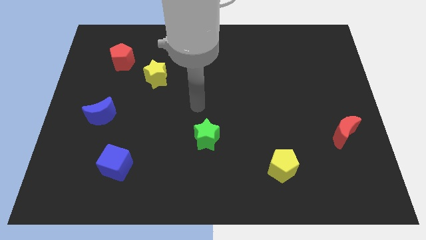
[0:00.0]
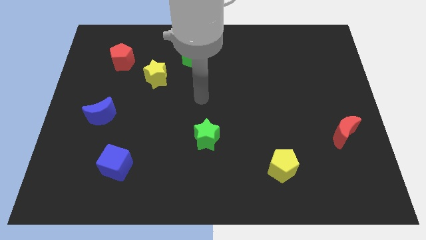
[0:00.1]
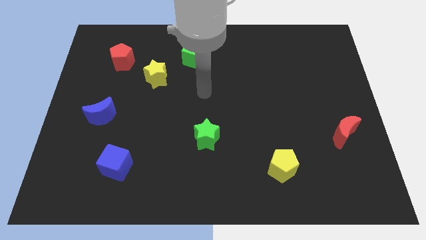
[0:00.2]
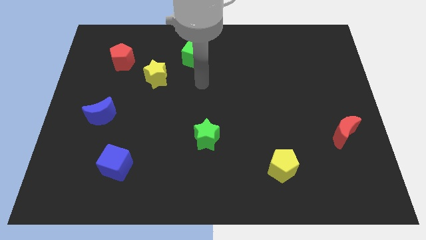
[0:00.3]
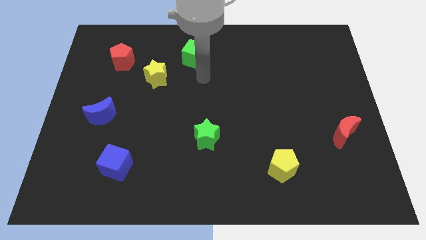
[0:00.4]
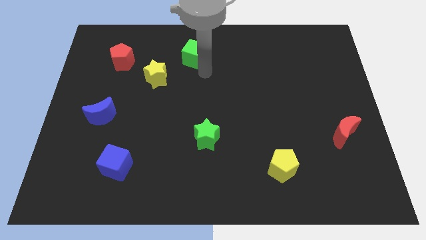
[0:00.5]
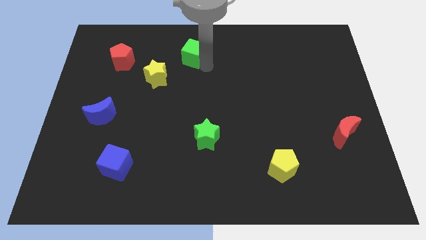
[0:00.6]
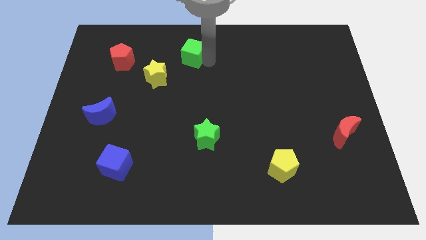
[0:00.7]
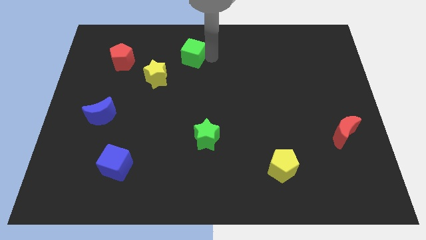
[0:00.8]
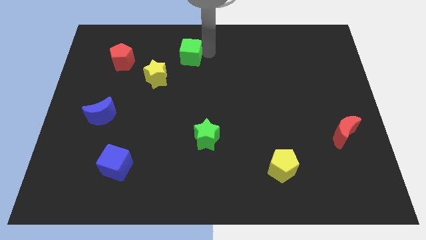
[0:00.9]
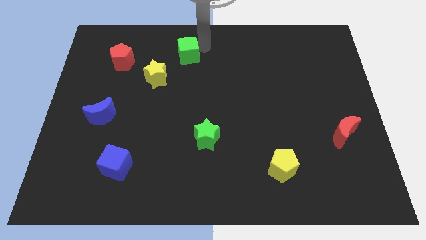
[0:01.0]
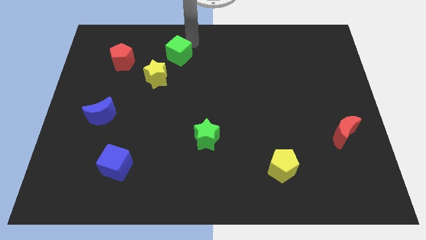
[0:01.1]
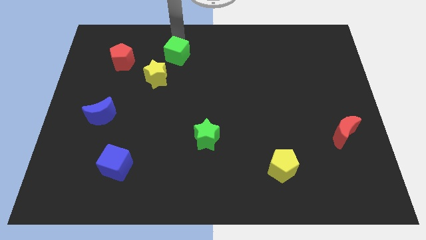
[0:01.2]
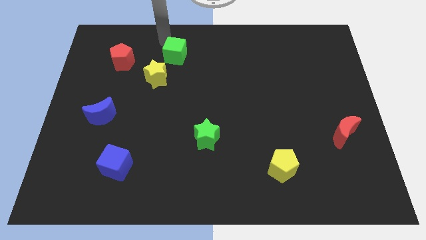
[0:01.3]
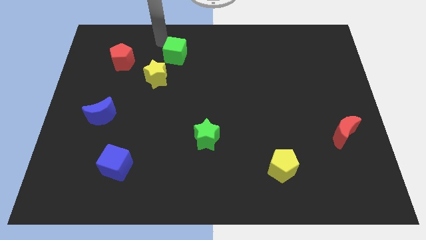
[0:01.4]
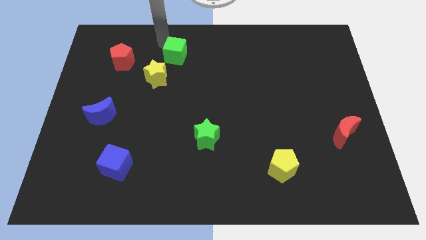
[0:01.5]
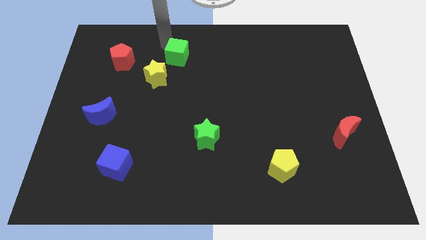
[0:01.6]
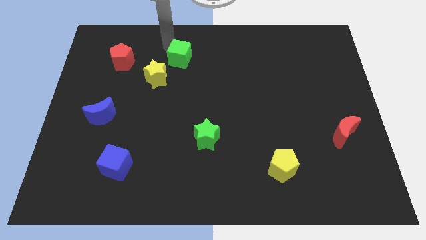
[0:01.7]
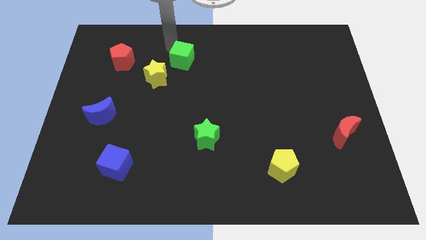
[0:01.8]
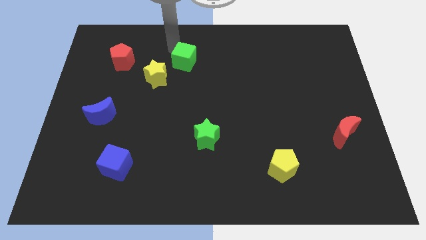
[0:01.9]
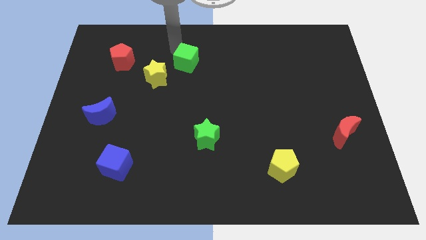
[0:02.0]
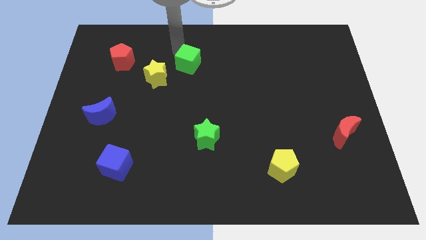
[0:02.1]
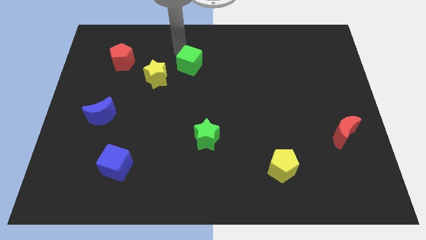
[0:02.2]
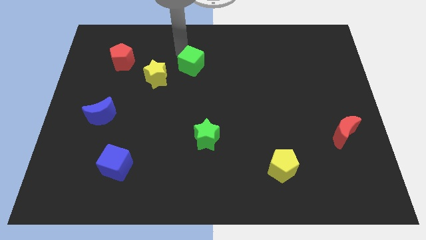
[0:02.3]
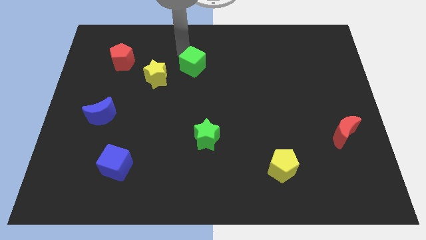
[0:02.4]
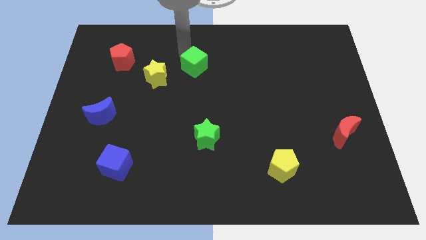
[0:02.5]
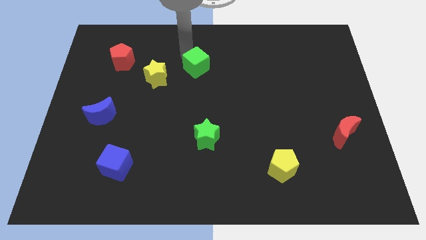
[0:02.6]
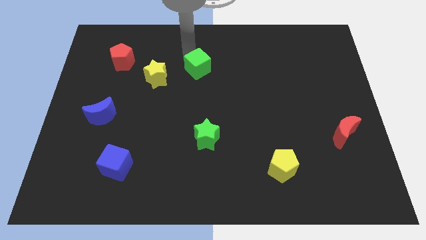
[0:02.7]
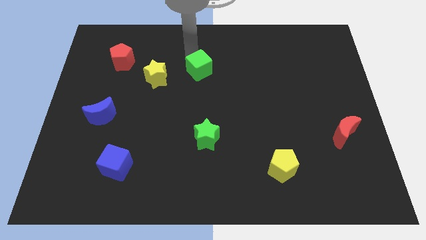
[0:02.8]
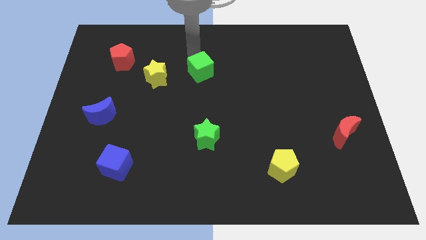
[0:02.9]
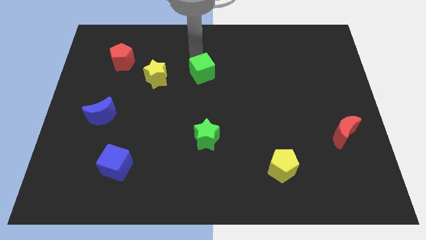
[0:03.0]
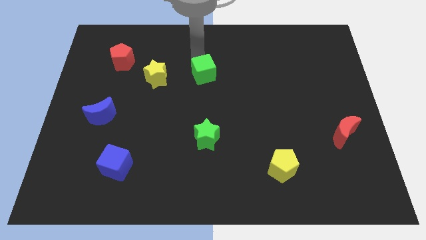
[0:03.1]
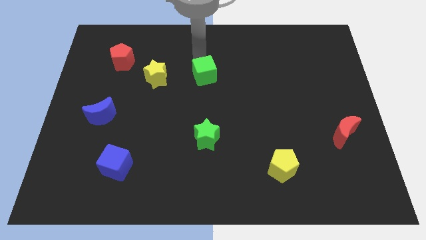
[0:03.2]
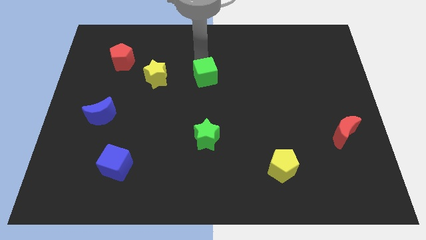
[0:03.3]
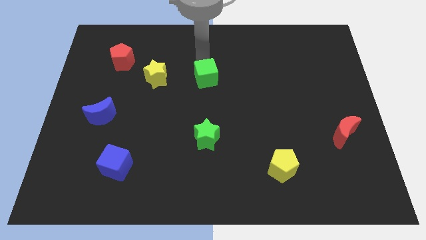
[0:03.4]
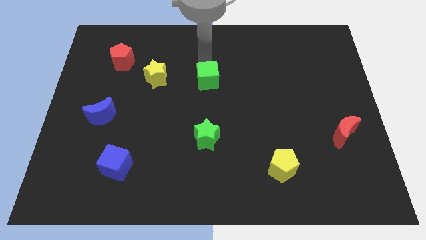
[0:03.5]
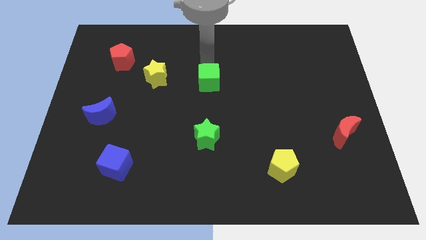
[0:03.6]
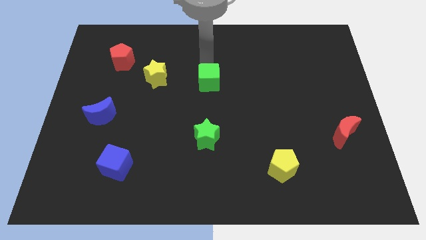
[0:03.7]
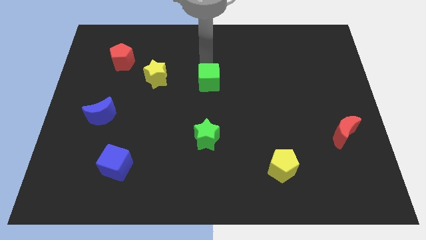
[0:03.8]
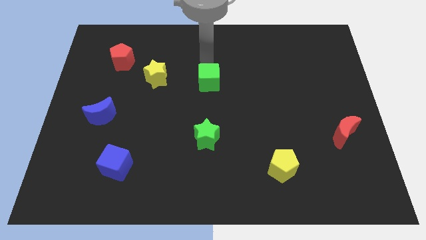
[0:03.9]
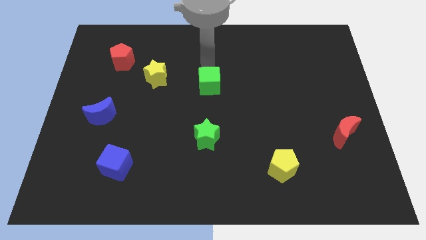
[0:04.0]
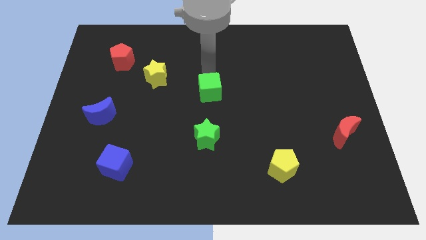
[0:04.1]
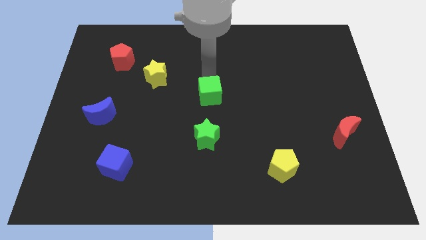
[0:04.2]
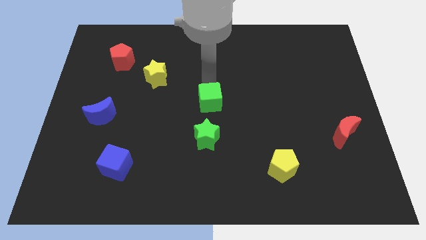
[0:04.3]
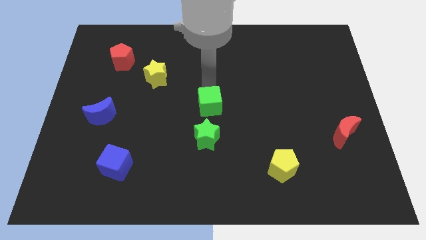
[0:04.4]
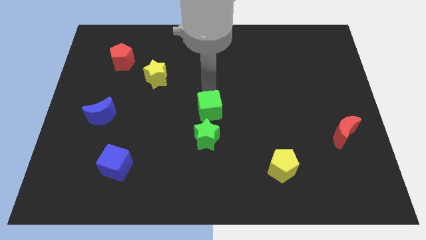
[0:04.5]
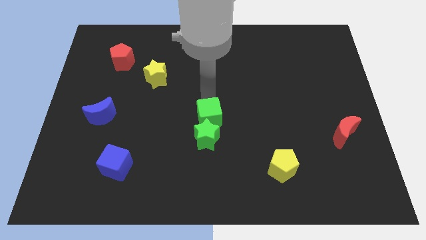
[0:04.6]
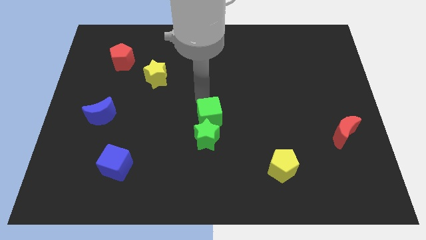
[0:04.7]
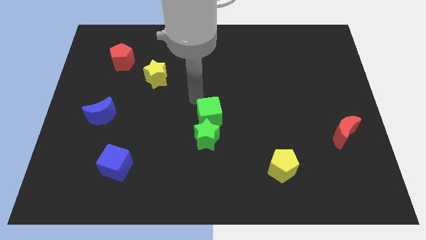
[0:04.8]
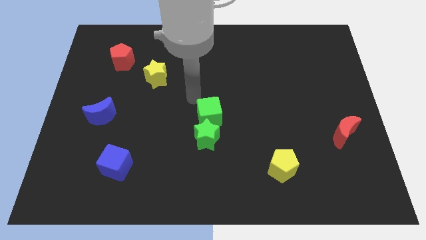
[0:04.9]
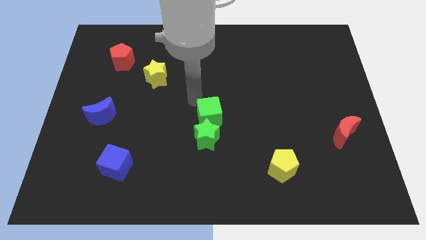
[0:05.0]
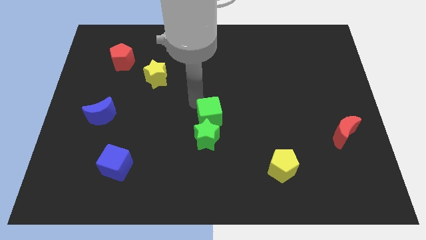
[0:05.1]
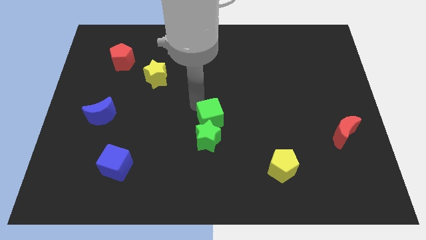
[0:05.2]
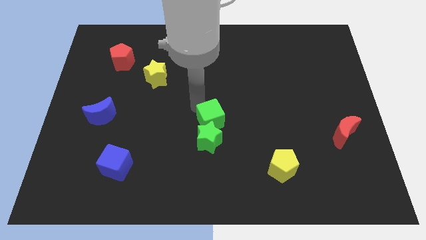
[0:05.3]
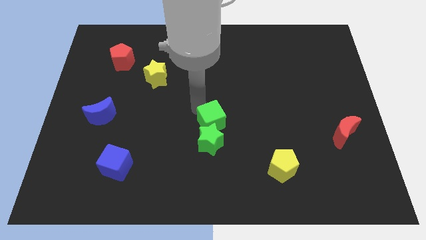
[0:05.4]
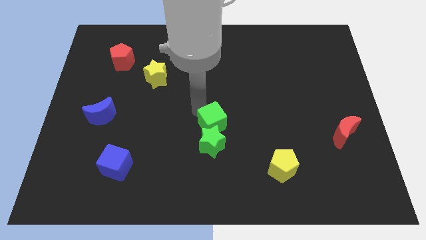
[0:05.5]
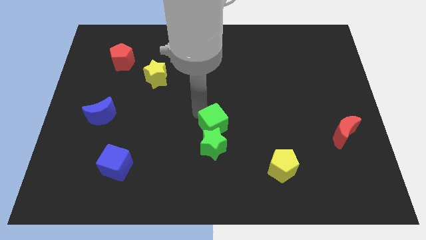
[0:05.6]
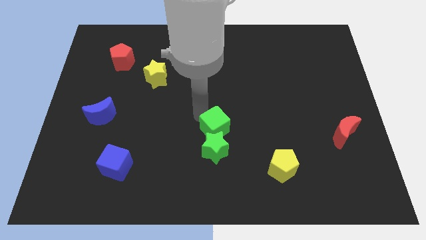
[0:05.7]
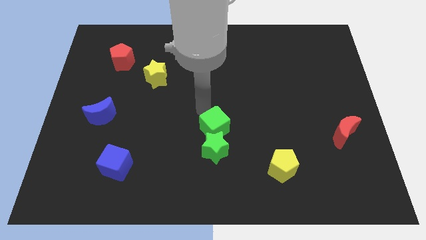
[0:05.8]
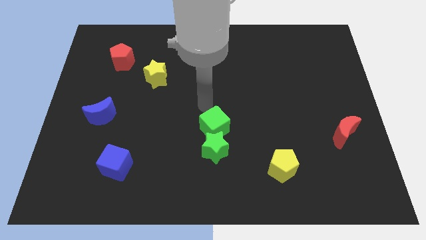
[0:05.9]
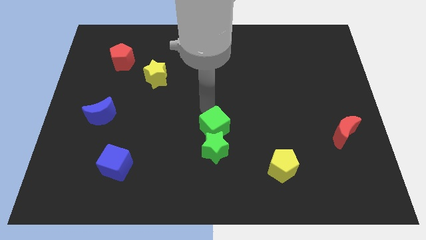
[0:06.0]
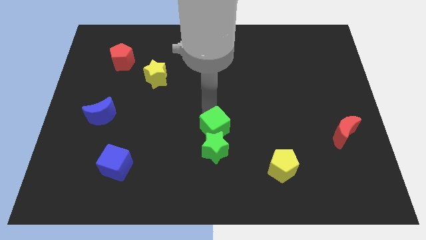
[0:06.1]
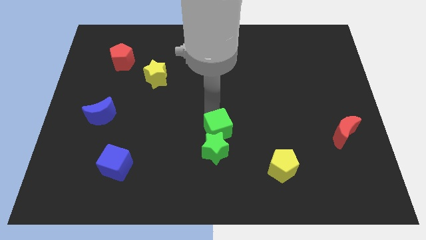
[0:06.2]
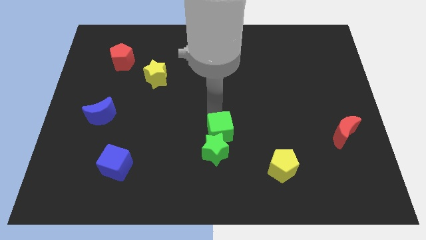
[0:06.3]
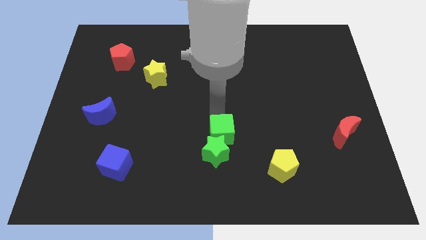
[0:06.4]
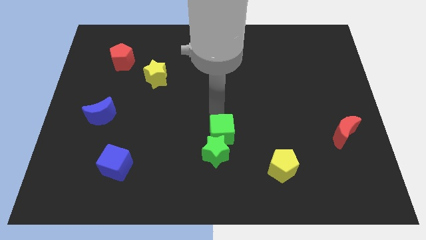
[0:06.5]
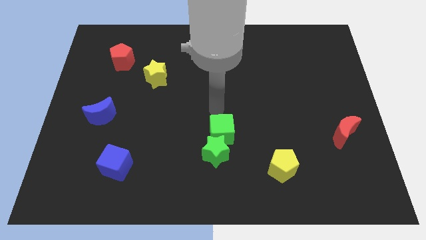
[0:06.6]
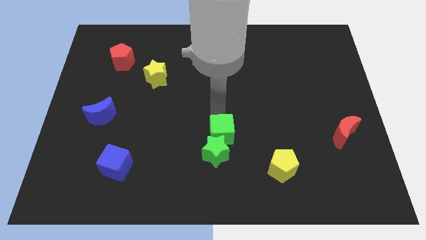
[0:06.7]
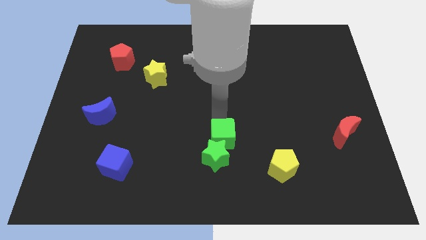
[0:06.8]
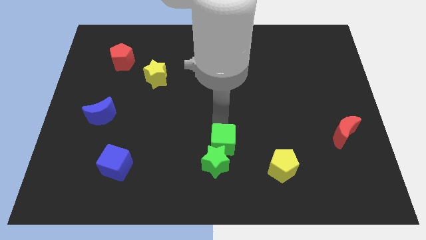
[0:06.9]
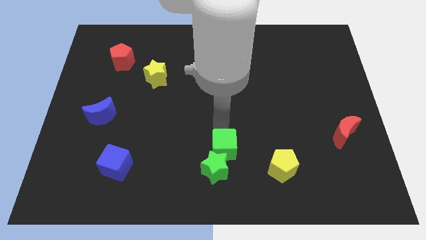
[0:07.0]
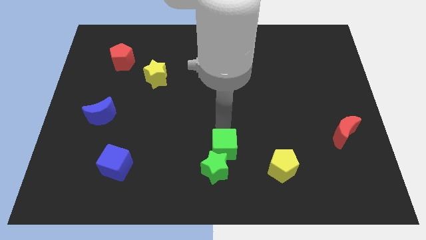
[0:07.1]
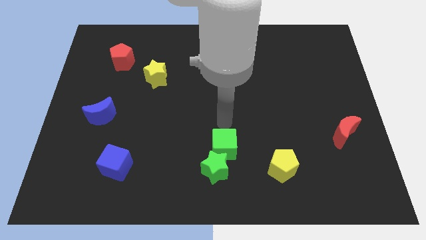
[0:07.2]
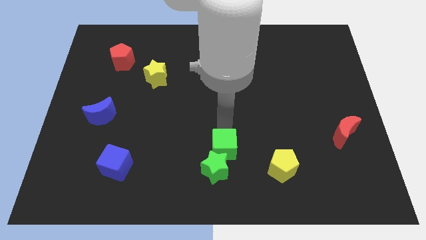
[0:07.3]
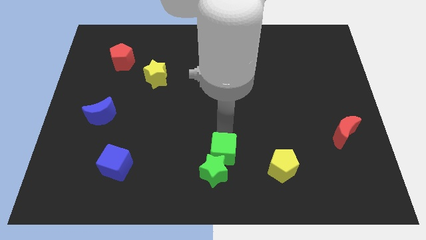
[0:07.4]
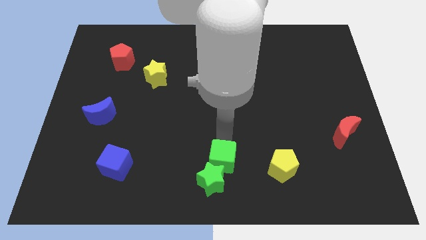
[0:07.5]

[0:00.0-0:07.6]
slide the green cube to the bottom side
